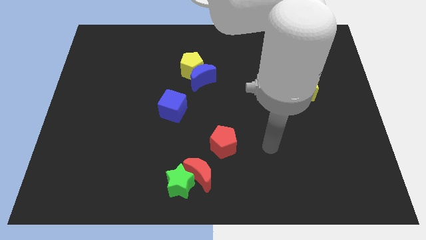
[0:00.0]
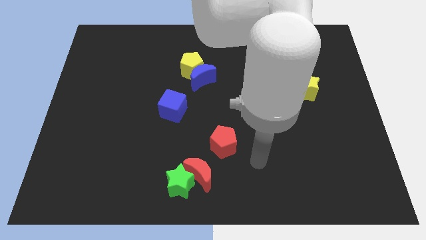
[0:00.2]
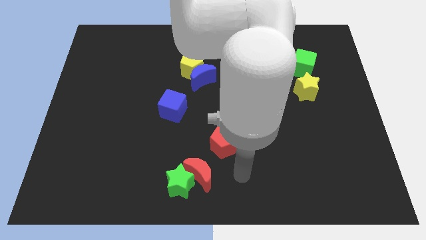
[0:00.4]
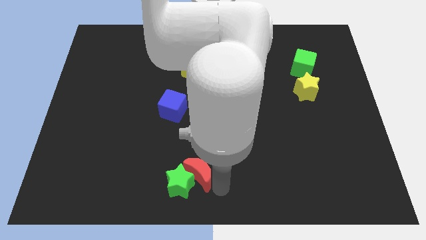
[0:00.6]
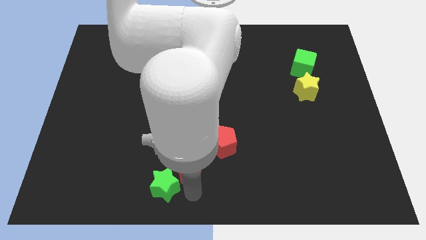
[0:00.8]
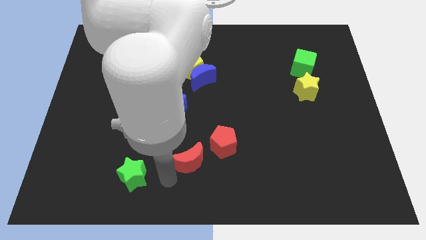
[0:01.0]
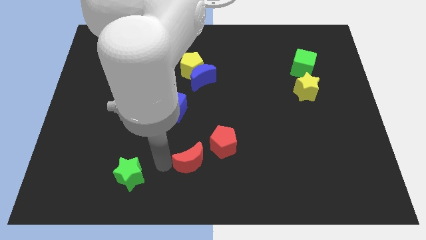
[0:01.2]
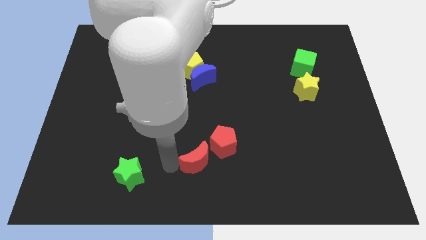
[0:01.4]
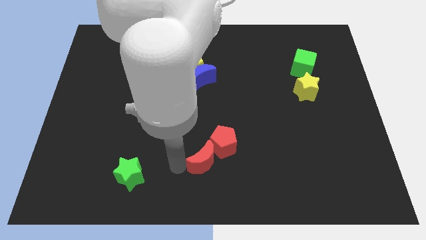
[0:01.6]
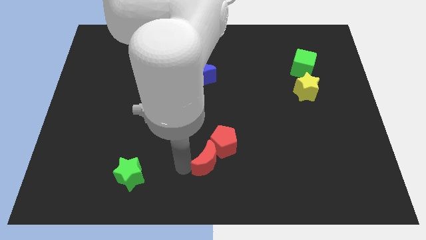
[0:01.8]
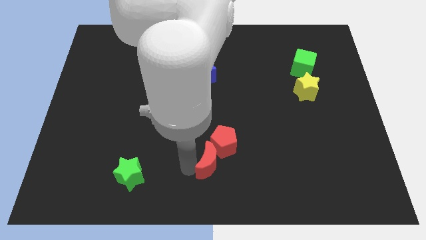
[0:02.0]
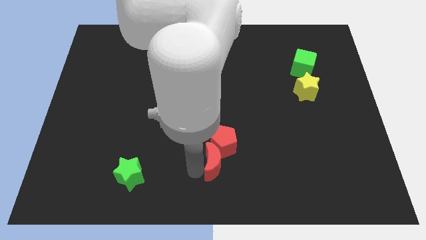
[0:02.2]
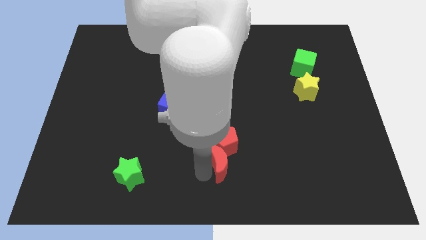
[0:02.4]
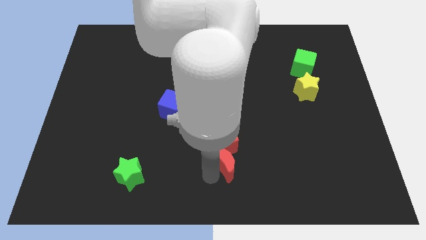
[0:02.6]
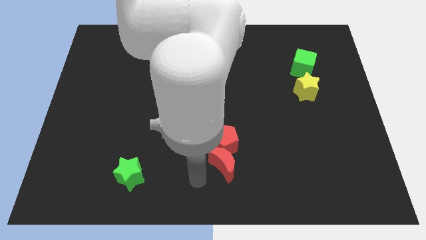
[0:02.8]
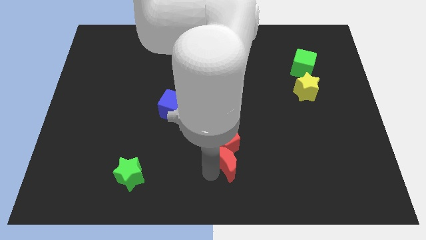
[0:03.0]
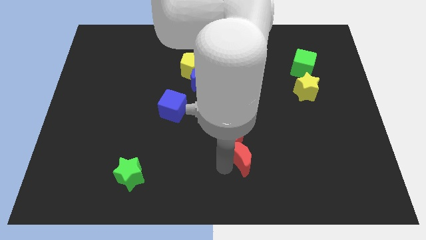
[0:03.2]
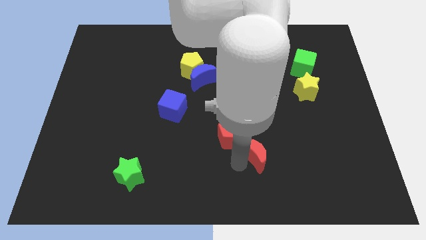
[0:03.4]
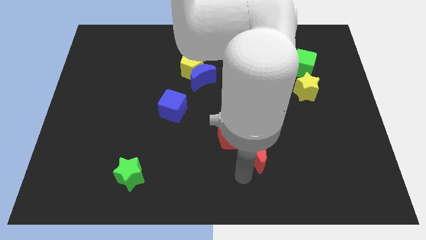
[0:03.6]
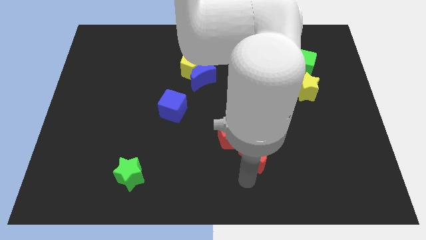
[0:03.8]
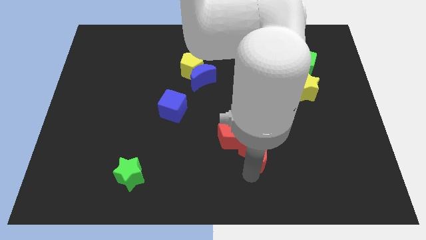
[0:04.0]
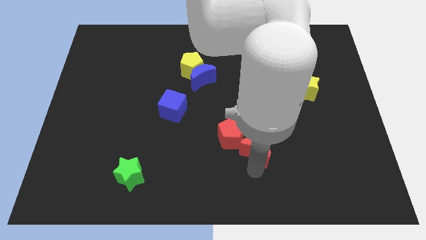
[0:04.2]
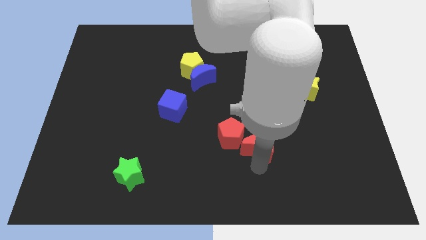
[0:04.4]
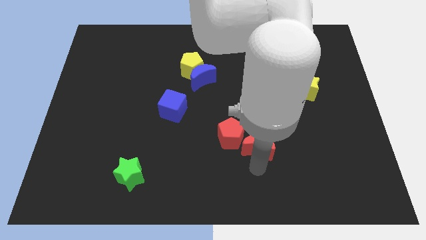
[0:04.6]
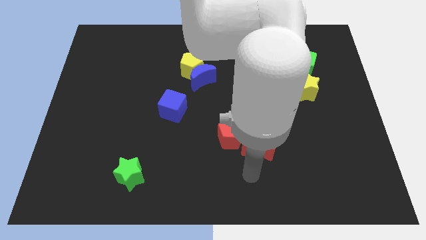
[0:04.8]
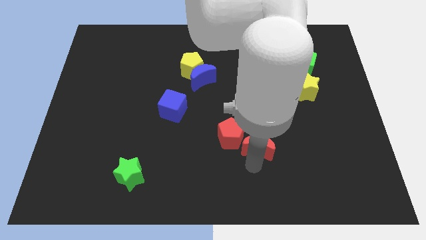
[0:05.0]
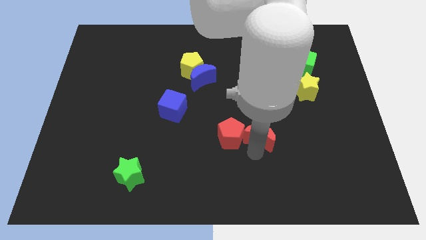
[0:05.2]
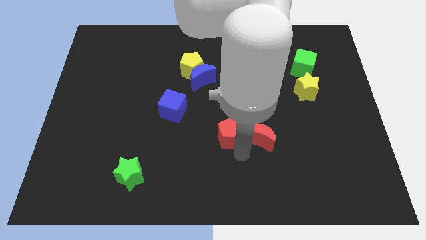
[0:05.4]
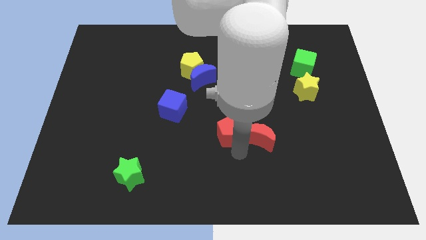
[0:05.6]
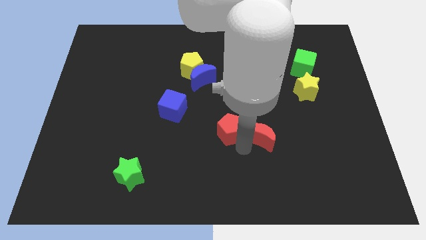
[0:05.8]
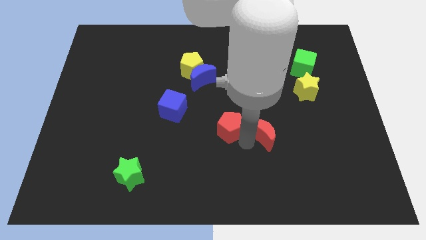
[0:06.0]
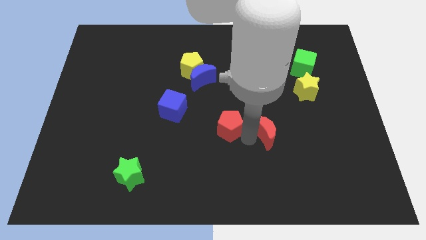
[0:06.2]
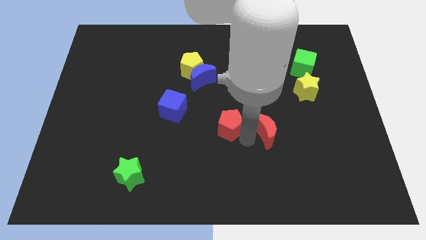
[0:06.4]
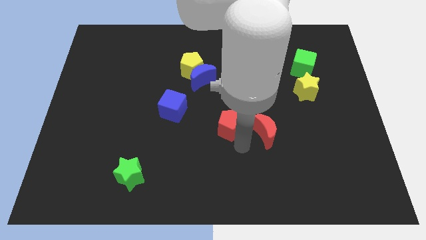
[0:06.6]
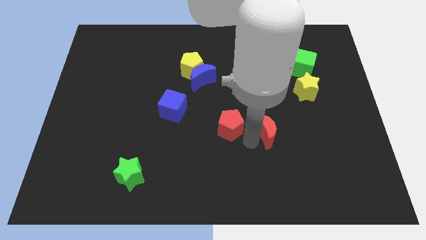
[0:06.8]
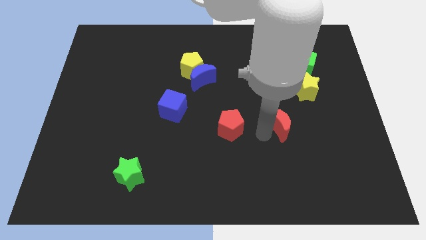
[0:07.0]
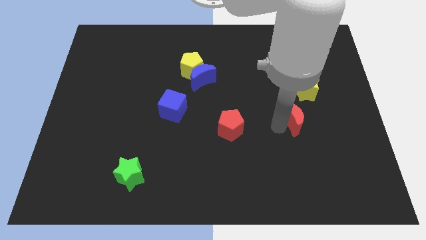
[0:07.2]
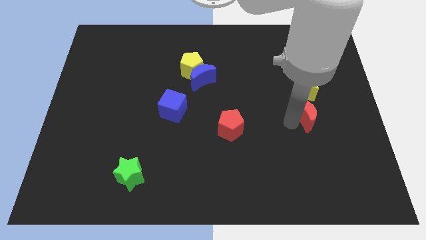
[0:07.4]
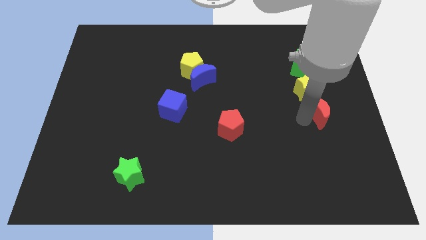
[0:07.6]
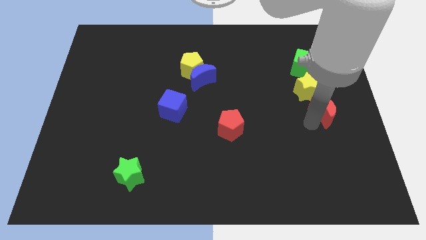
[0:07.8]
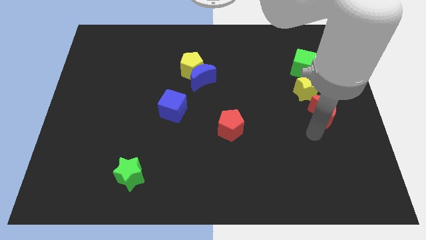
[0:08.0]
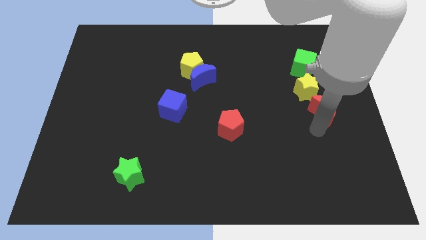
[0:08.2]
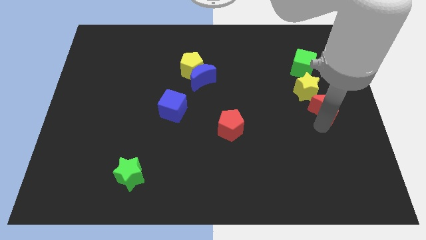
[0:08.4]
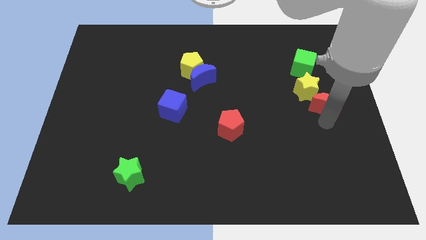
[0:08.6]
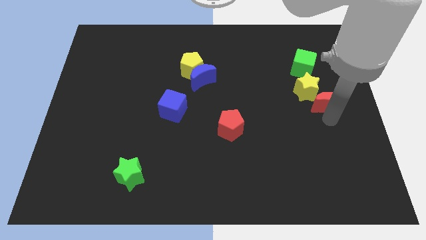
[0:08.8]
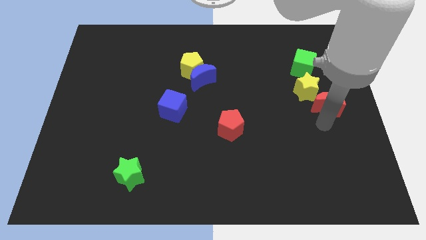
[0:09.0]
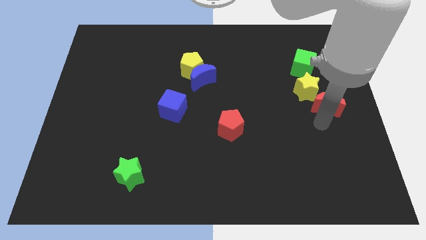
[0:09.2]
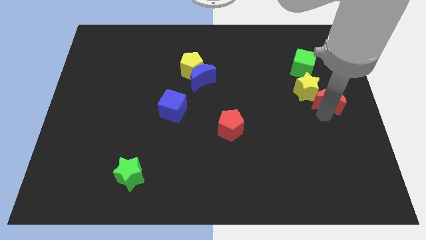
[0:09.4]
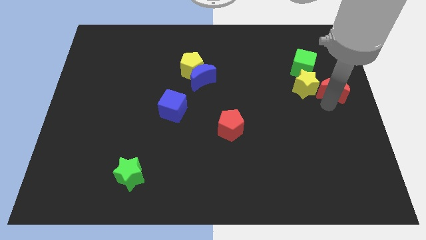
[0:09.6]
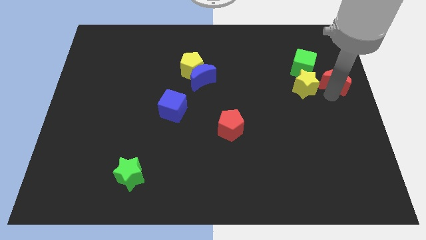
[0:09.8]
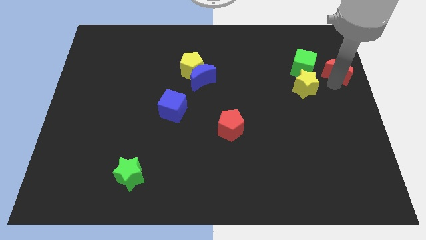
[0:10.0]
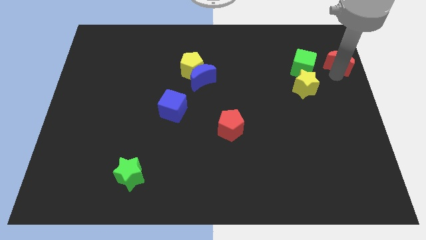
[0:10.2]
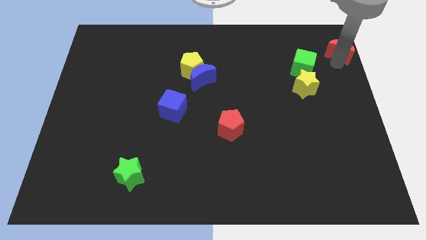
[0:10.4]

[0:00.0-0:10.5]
put the red moon to the top right

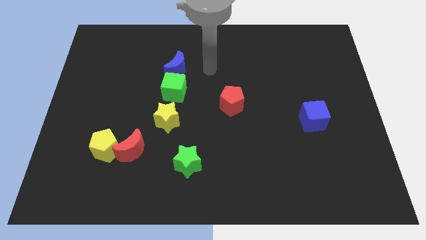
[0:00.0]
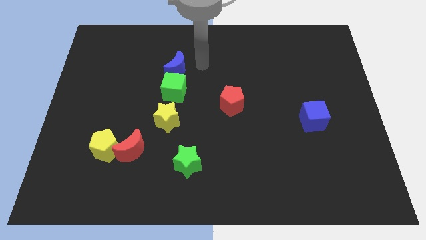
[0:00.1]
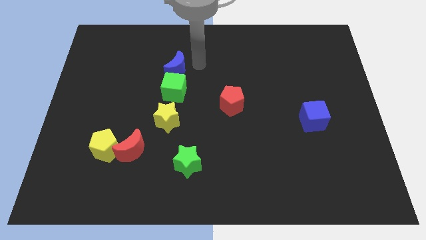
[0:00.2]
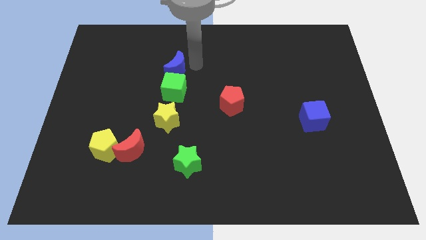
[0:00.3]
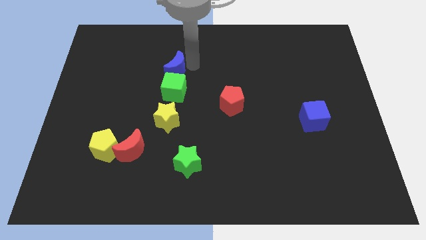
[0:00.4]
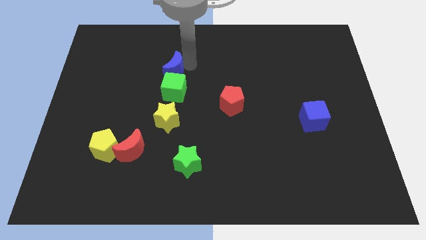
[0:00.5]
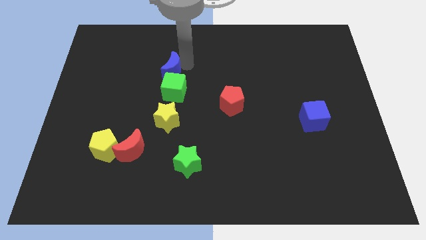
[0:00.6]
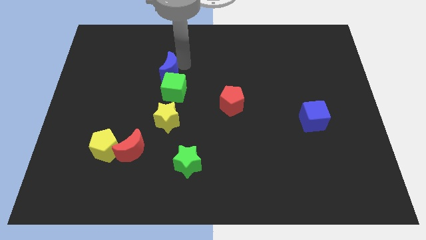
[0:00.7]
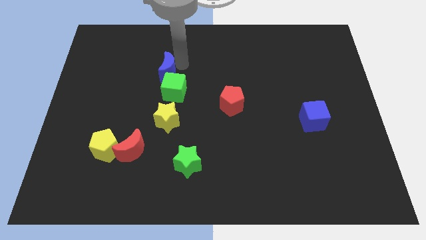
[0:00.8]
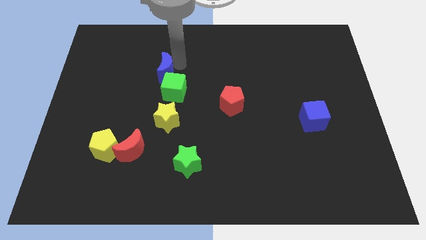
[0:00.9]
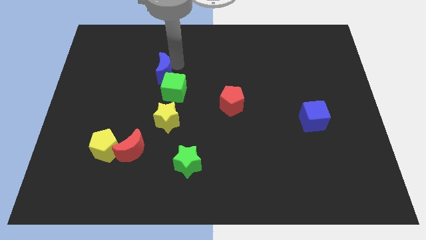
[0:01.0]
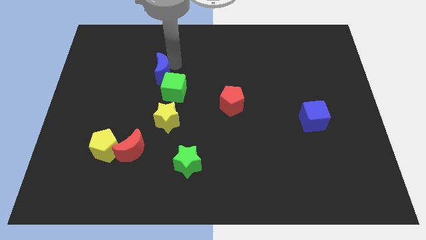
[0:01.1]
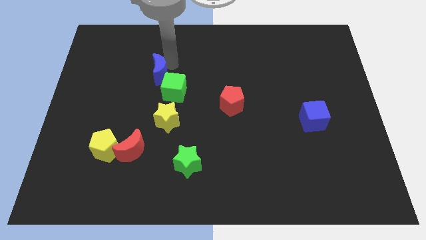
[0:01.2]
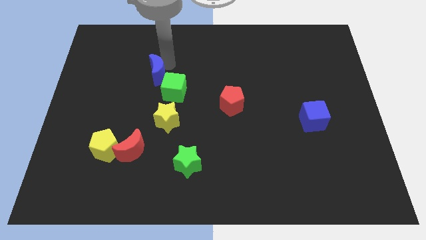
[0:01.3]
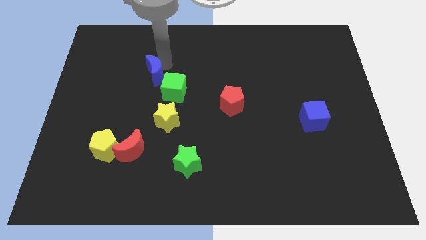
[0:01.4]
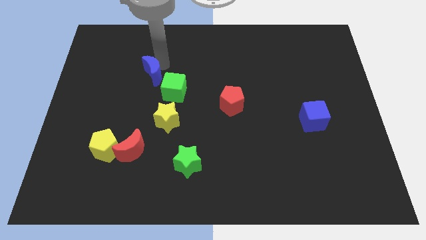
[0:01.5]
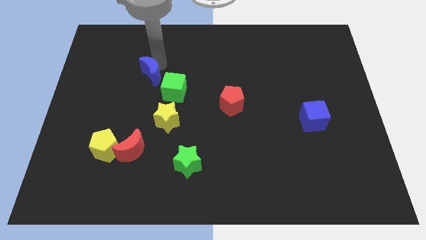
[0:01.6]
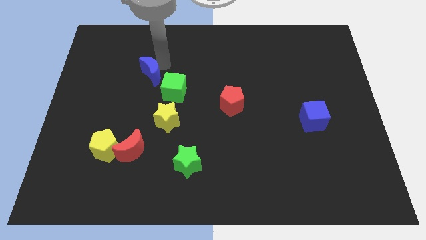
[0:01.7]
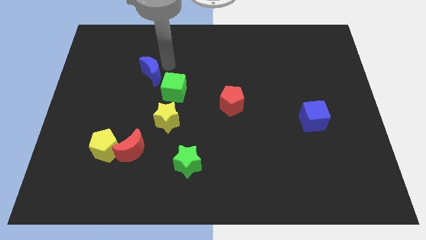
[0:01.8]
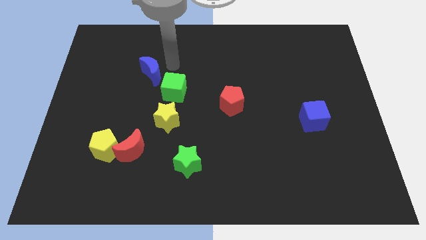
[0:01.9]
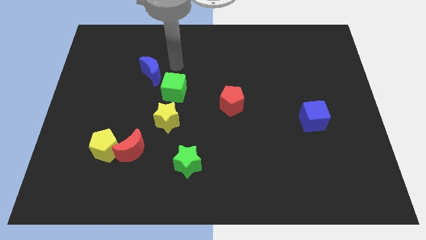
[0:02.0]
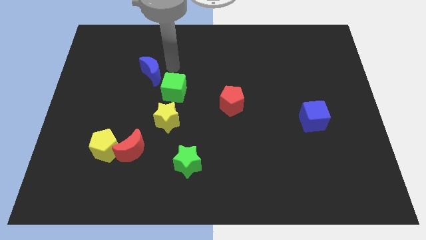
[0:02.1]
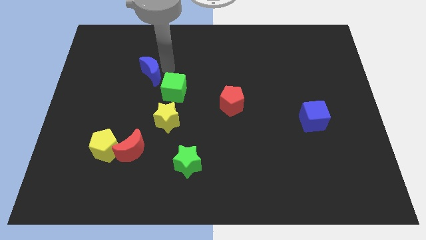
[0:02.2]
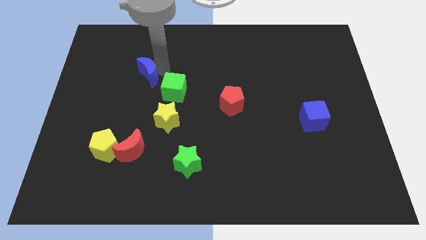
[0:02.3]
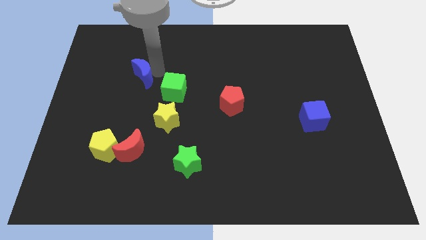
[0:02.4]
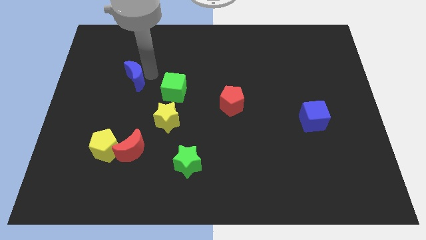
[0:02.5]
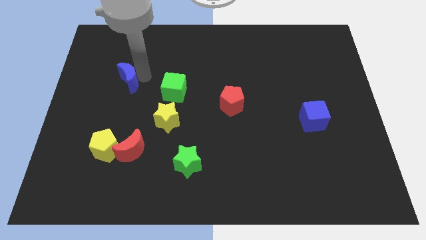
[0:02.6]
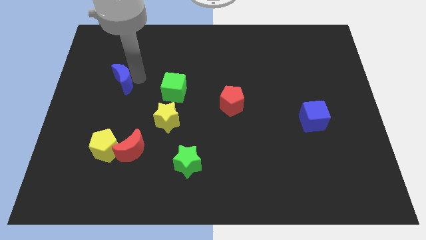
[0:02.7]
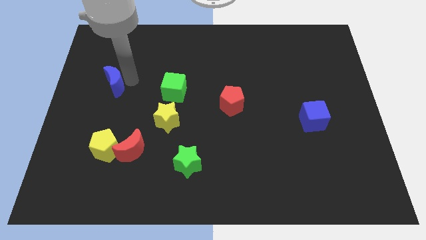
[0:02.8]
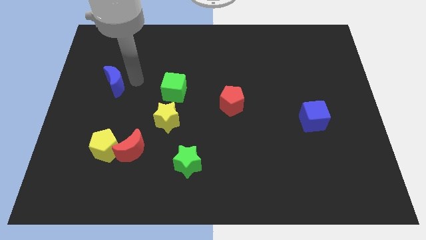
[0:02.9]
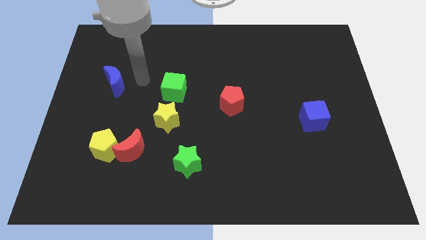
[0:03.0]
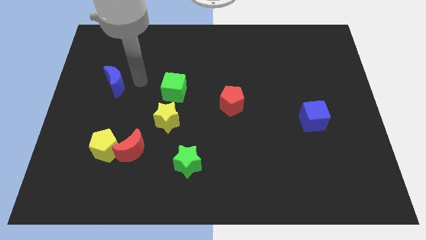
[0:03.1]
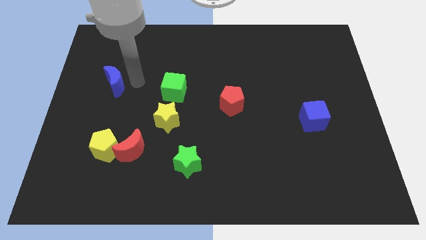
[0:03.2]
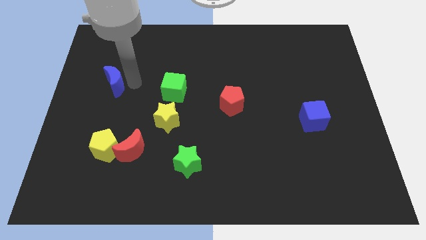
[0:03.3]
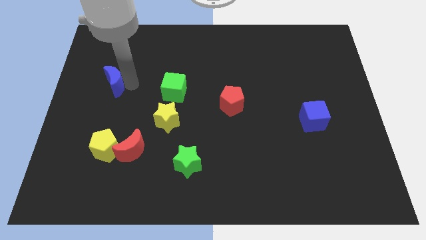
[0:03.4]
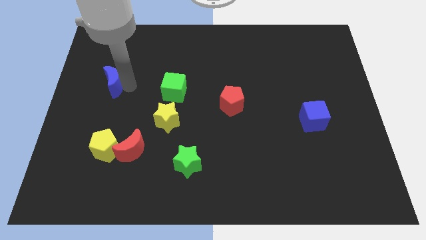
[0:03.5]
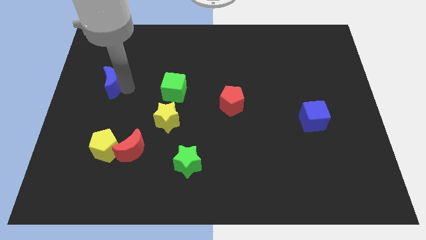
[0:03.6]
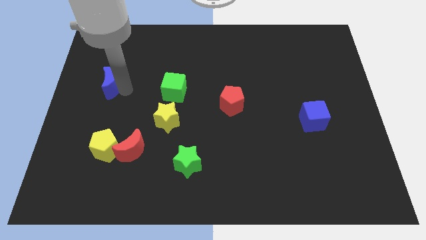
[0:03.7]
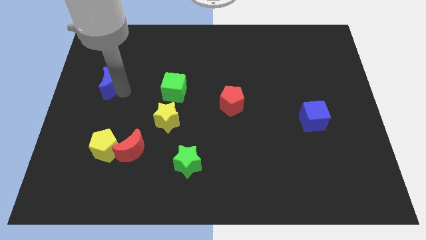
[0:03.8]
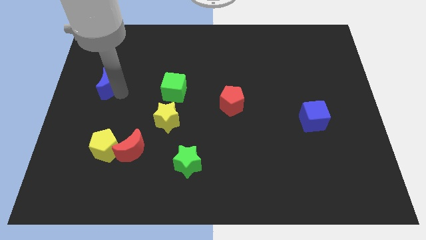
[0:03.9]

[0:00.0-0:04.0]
move the blue moon to the left side
